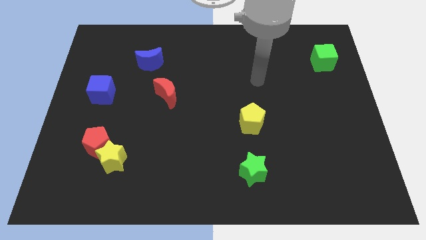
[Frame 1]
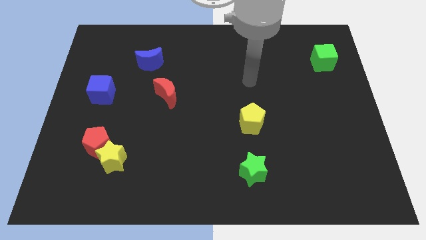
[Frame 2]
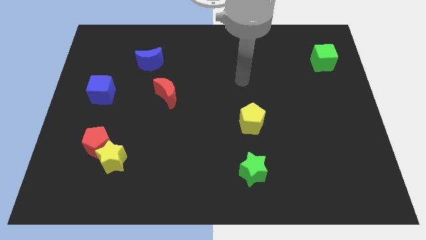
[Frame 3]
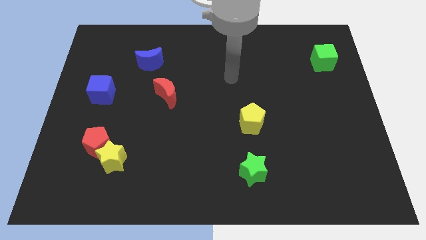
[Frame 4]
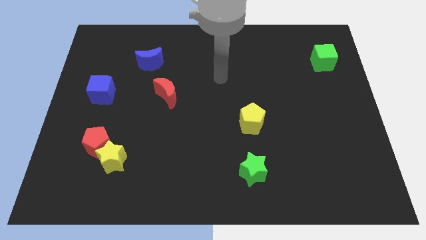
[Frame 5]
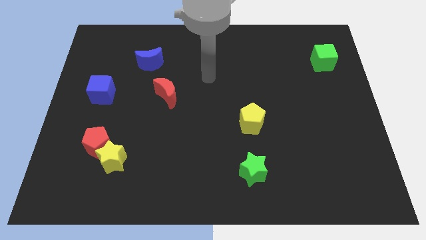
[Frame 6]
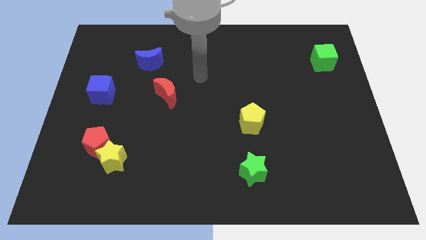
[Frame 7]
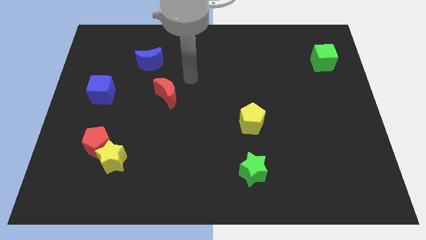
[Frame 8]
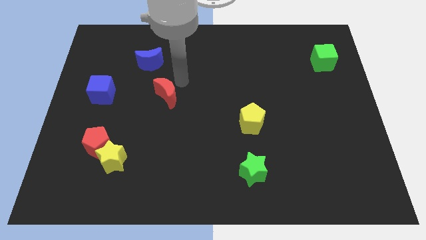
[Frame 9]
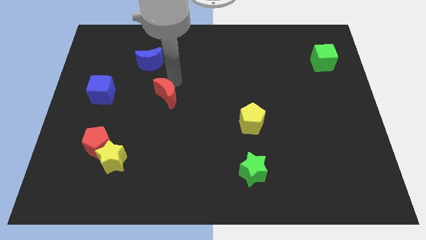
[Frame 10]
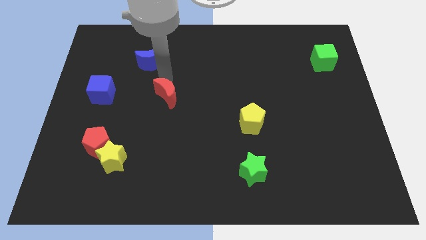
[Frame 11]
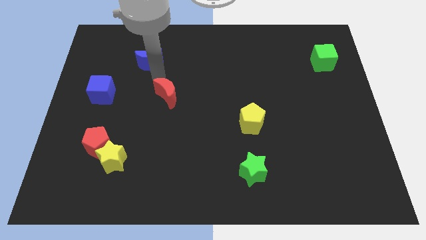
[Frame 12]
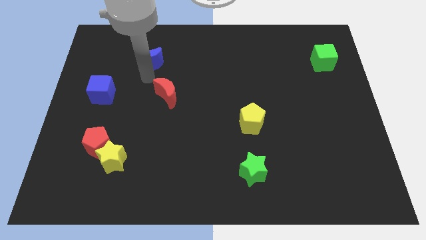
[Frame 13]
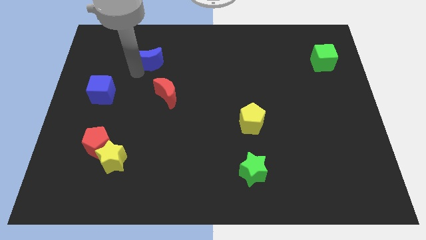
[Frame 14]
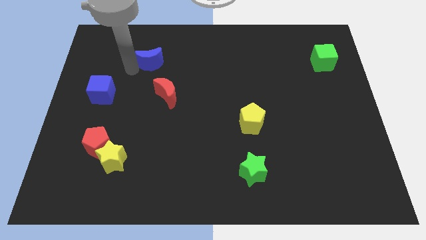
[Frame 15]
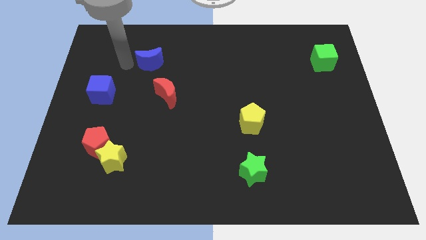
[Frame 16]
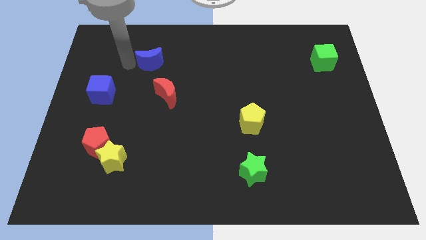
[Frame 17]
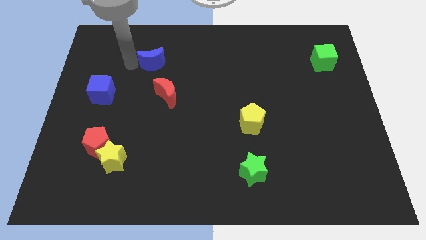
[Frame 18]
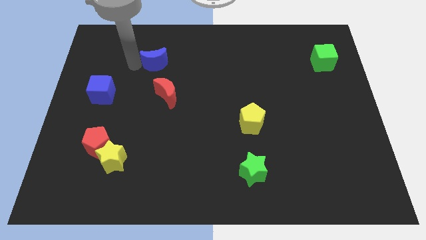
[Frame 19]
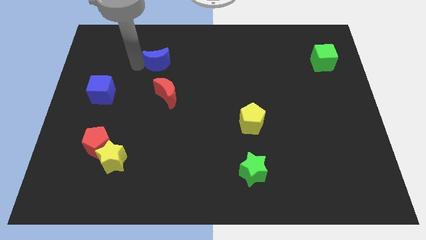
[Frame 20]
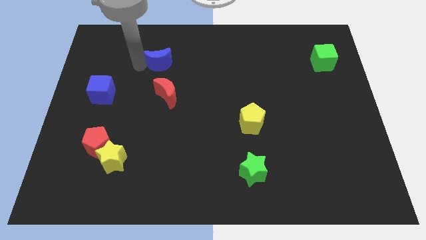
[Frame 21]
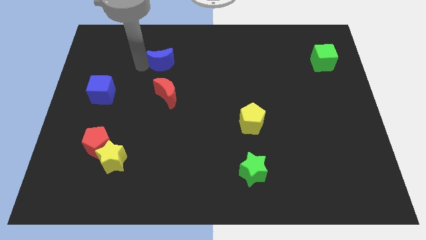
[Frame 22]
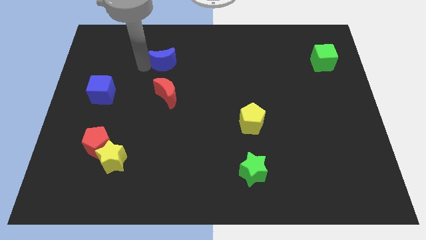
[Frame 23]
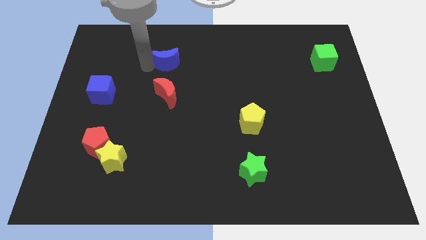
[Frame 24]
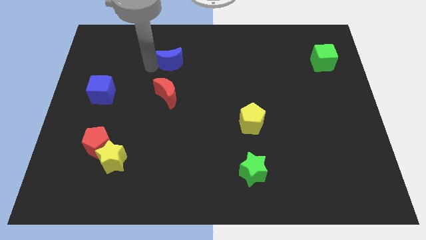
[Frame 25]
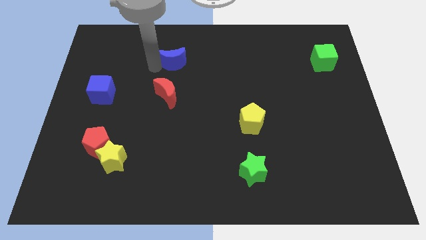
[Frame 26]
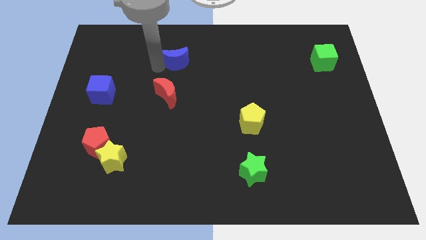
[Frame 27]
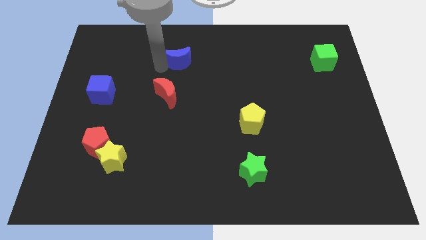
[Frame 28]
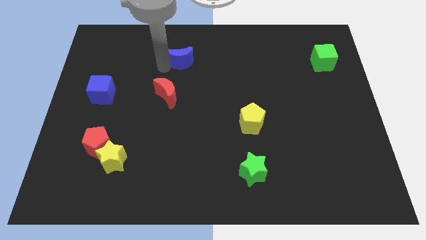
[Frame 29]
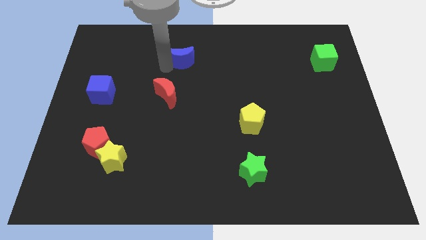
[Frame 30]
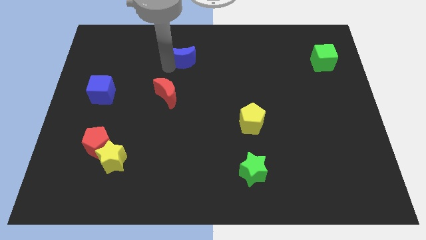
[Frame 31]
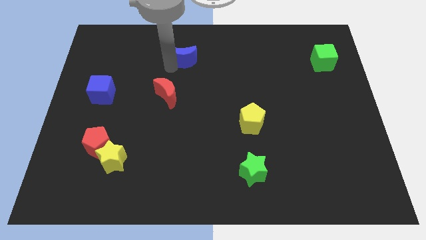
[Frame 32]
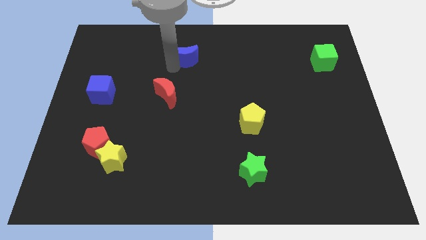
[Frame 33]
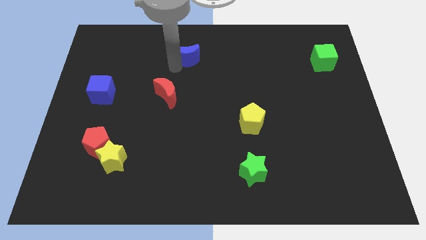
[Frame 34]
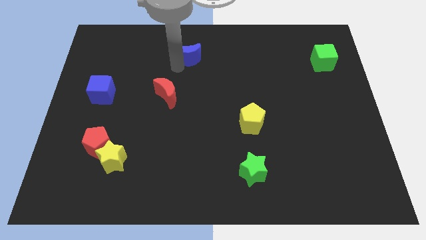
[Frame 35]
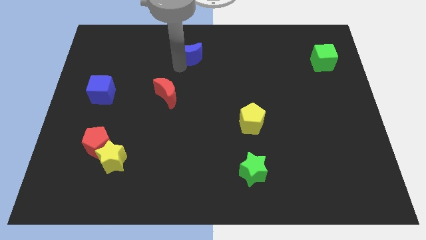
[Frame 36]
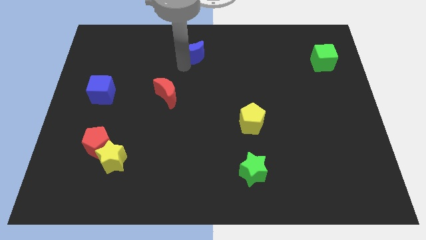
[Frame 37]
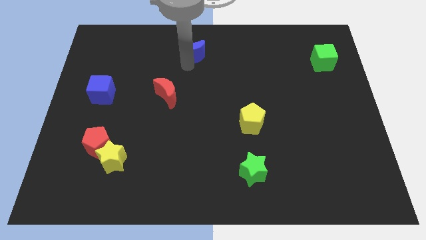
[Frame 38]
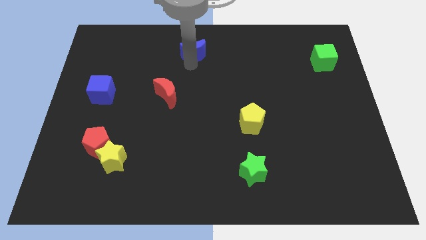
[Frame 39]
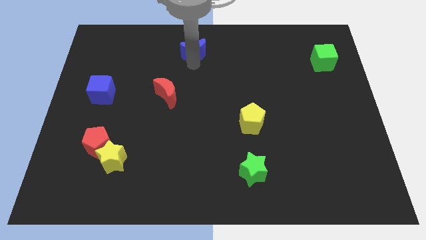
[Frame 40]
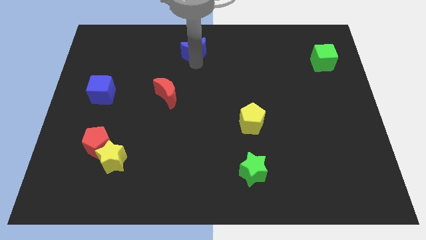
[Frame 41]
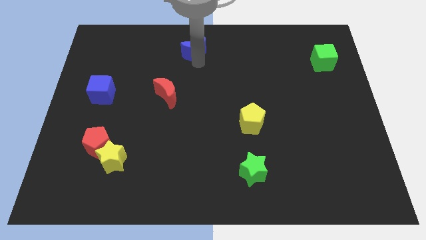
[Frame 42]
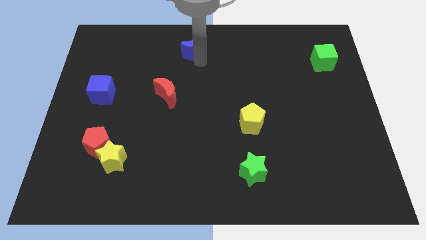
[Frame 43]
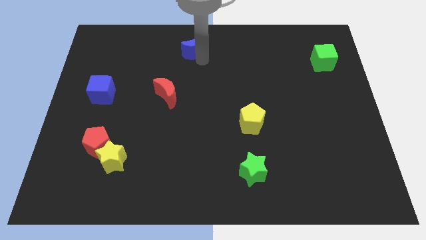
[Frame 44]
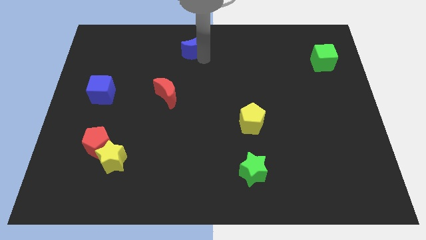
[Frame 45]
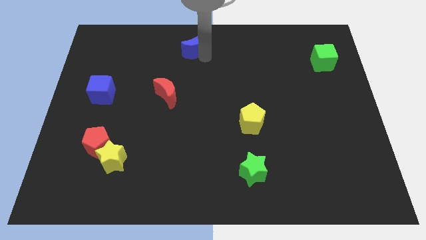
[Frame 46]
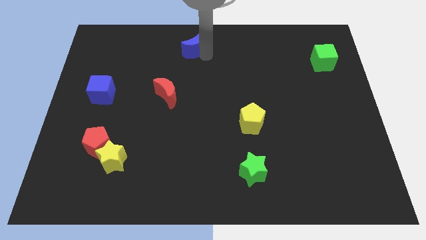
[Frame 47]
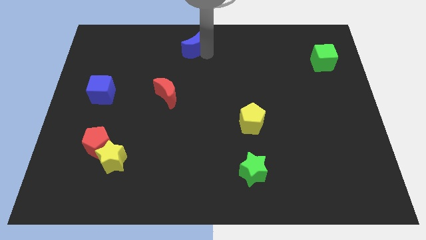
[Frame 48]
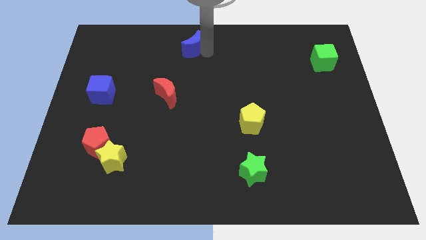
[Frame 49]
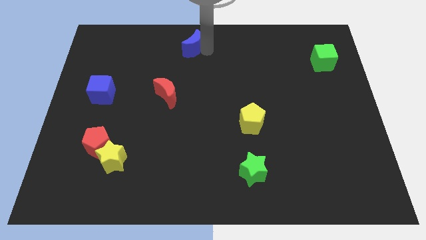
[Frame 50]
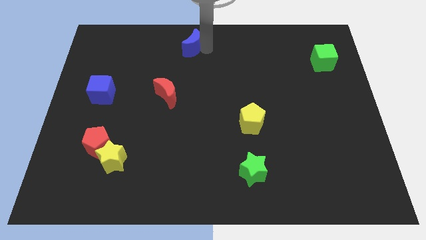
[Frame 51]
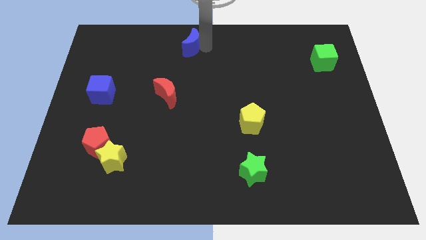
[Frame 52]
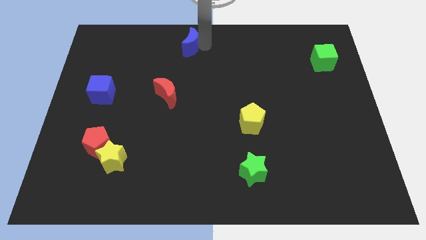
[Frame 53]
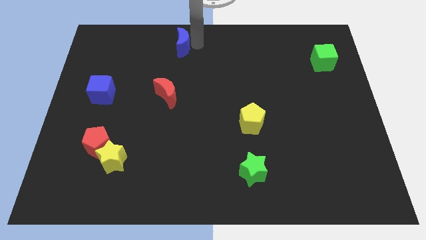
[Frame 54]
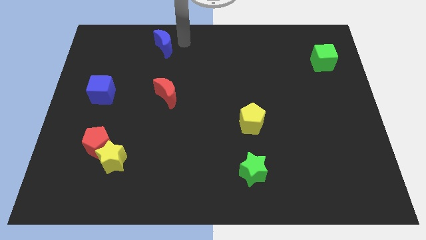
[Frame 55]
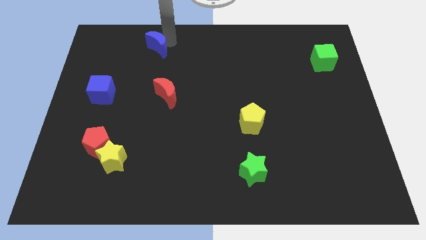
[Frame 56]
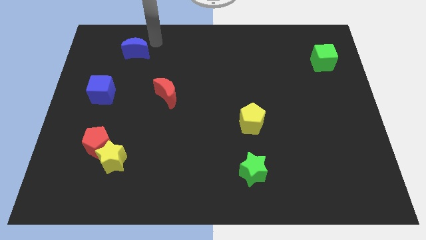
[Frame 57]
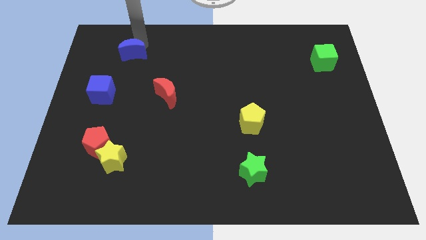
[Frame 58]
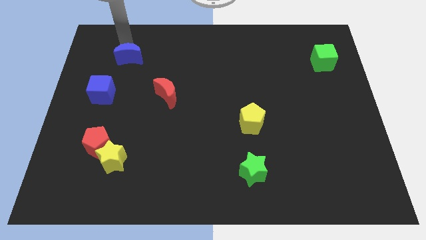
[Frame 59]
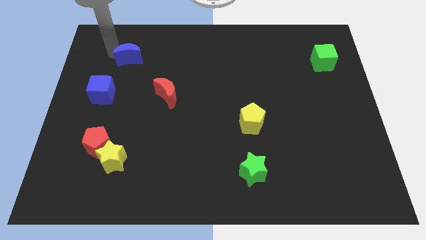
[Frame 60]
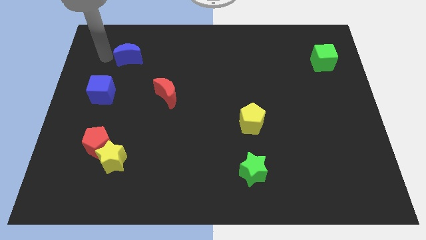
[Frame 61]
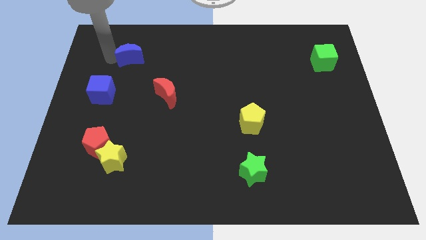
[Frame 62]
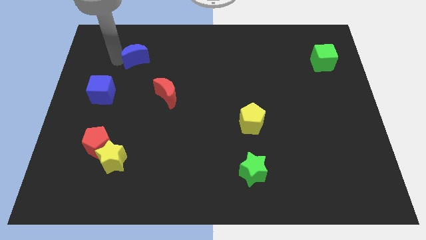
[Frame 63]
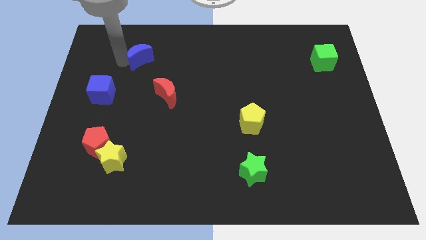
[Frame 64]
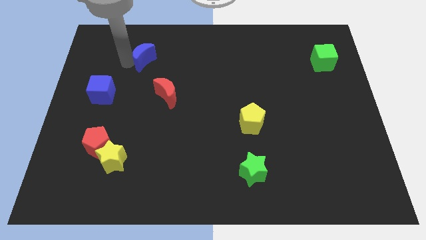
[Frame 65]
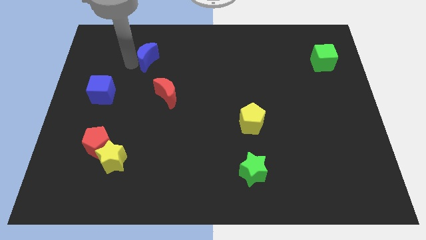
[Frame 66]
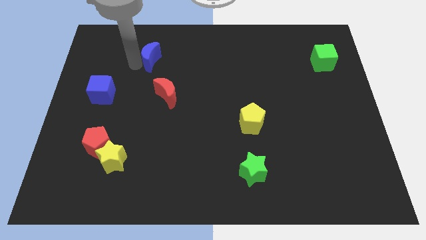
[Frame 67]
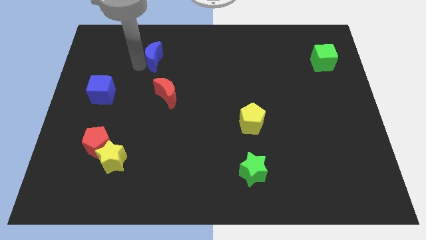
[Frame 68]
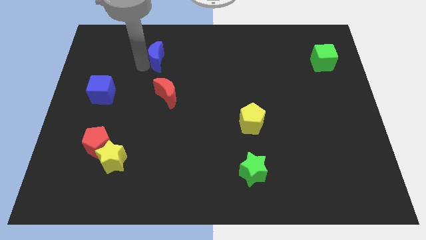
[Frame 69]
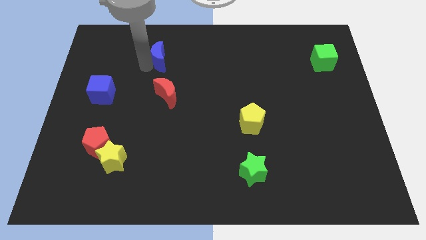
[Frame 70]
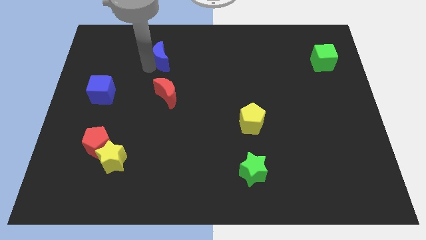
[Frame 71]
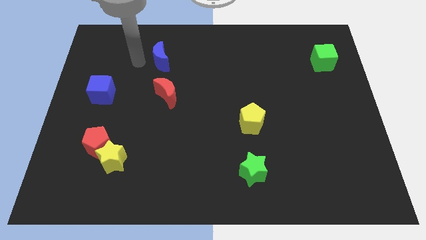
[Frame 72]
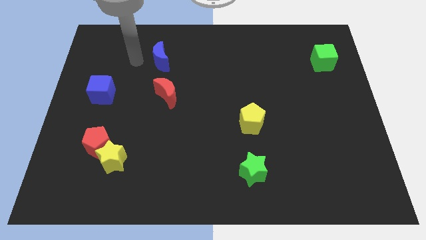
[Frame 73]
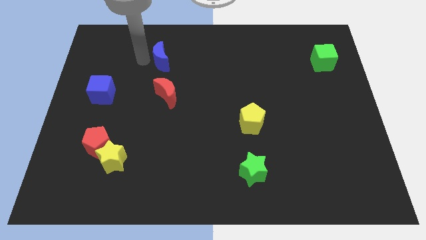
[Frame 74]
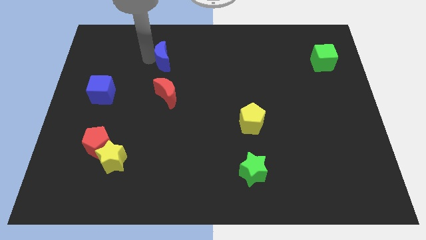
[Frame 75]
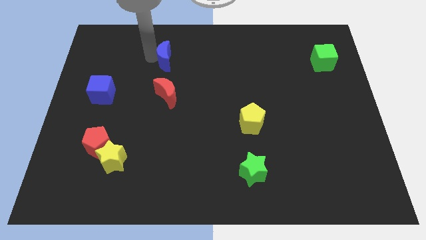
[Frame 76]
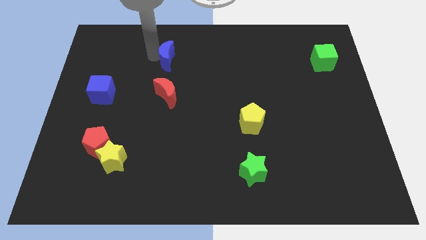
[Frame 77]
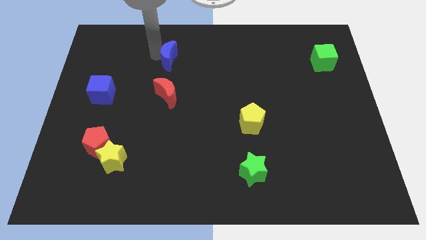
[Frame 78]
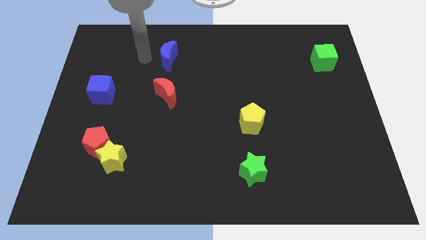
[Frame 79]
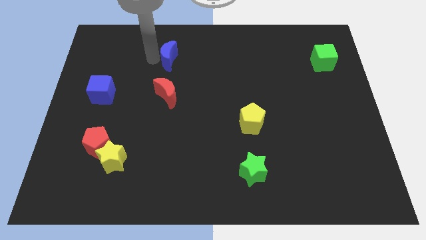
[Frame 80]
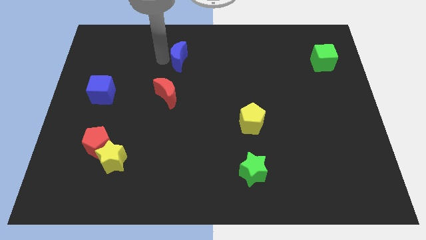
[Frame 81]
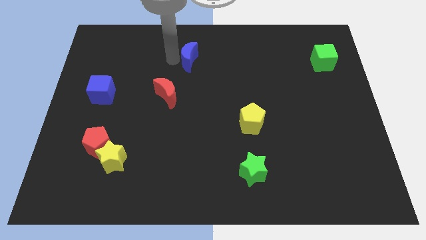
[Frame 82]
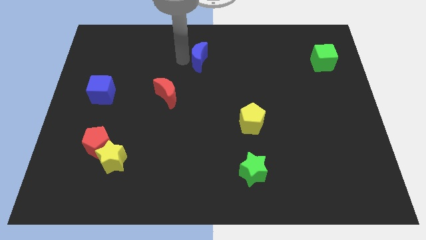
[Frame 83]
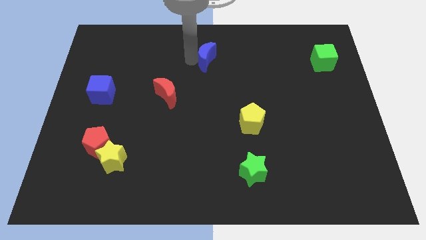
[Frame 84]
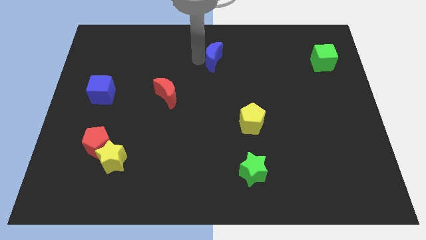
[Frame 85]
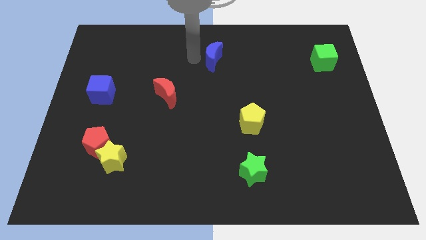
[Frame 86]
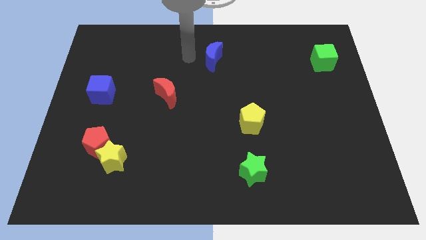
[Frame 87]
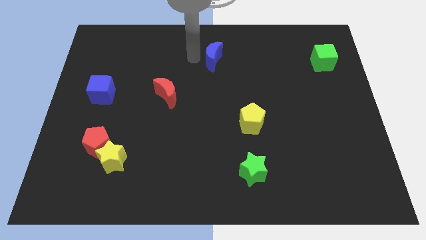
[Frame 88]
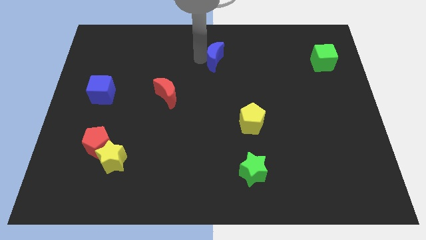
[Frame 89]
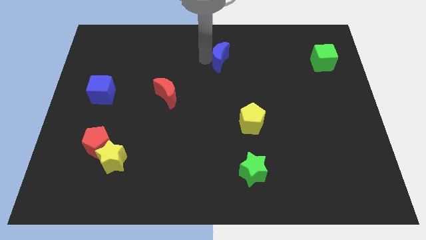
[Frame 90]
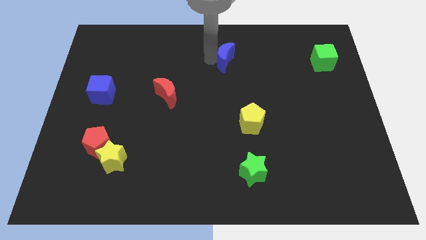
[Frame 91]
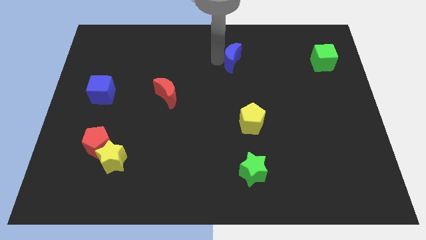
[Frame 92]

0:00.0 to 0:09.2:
slide the blue moon right
